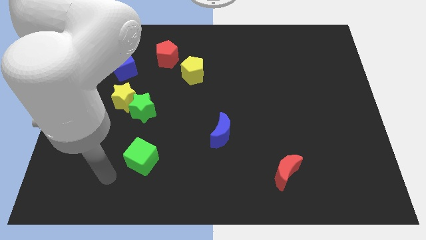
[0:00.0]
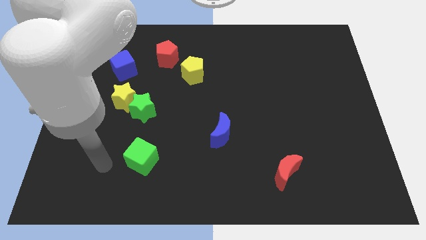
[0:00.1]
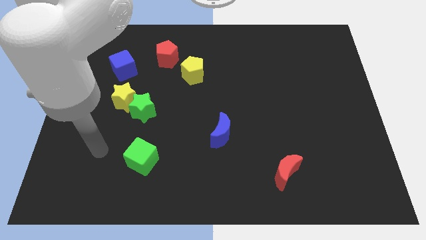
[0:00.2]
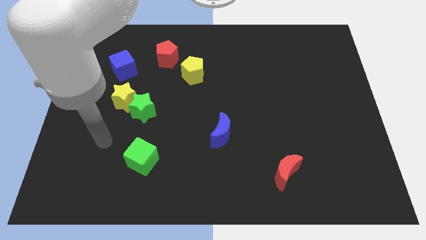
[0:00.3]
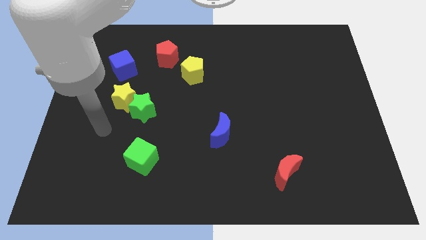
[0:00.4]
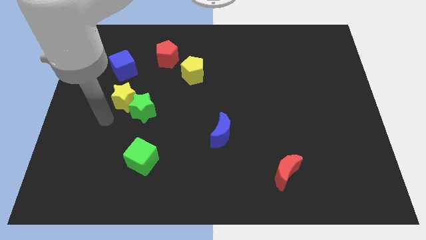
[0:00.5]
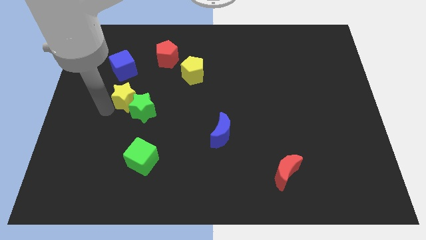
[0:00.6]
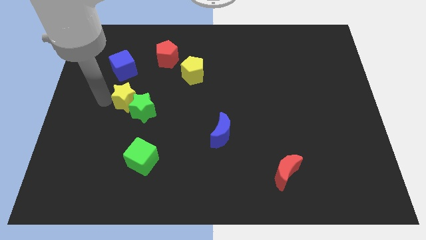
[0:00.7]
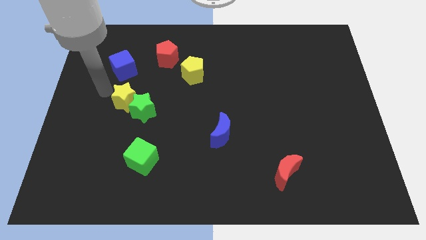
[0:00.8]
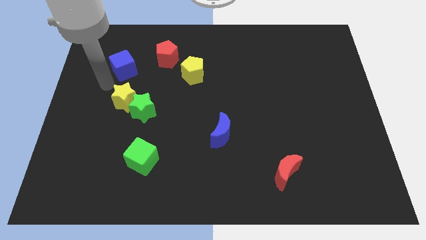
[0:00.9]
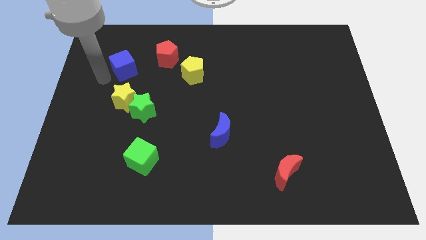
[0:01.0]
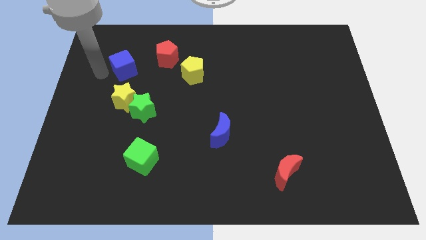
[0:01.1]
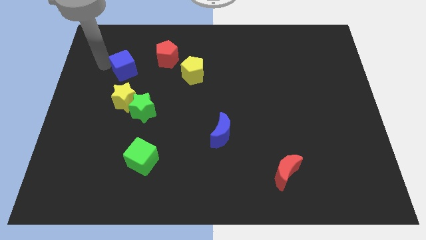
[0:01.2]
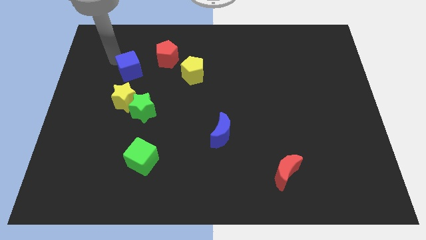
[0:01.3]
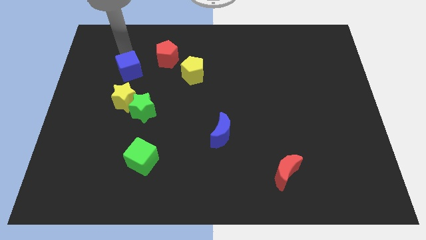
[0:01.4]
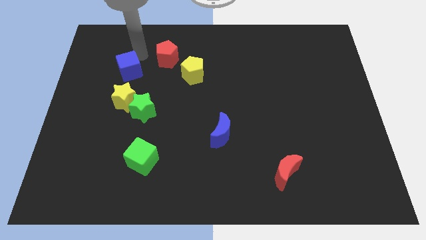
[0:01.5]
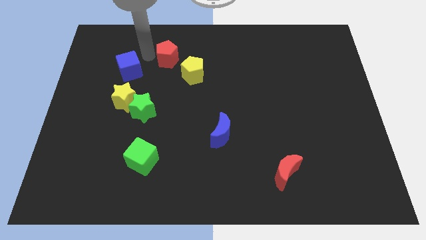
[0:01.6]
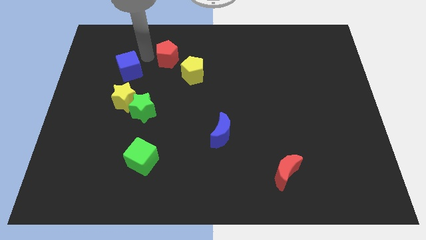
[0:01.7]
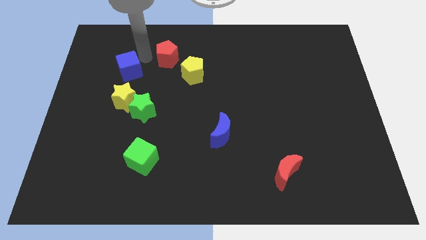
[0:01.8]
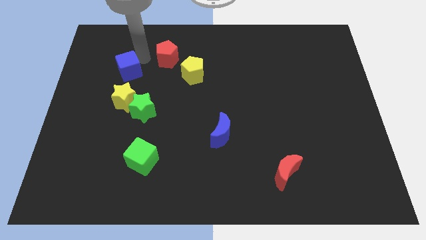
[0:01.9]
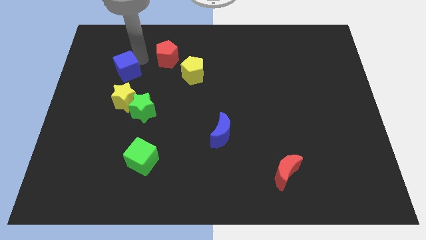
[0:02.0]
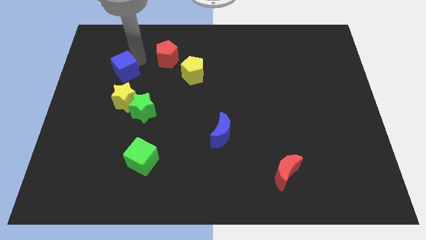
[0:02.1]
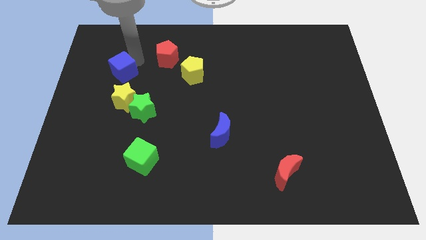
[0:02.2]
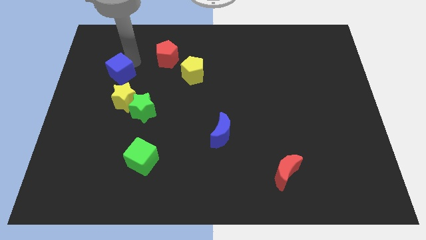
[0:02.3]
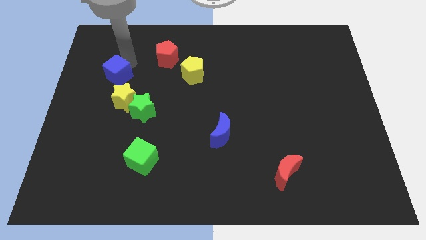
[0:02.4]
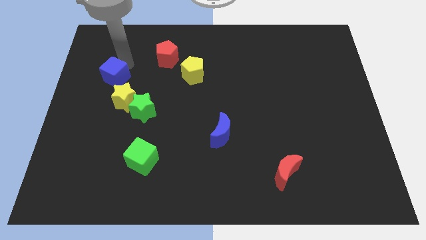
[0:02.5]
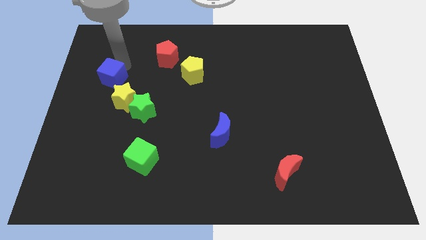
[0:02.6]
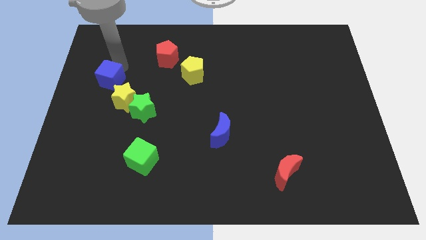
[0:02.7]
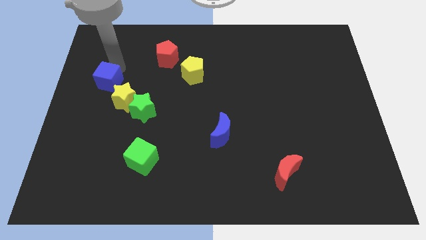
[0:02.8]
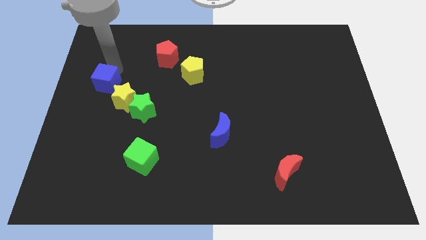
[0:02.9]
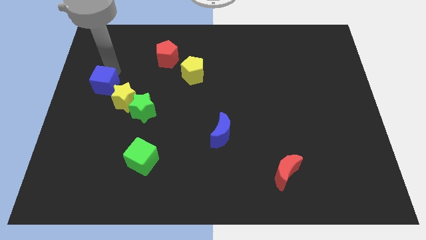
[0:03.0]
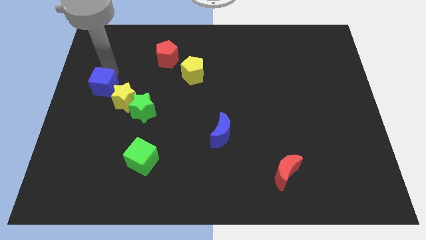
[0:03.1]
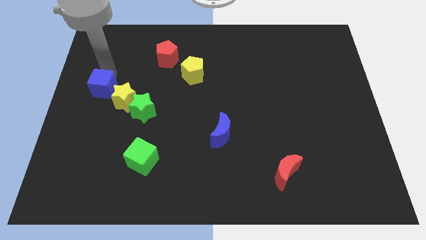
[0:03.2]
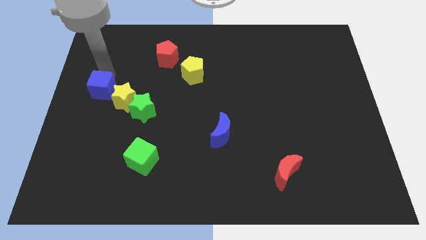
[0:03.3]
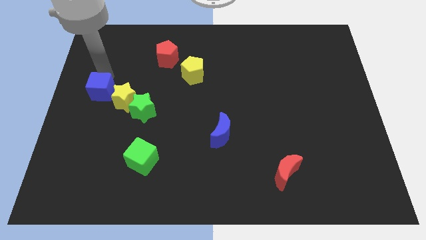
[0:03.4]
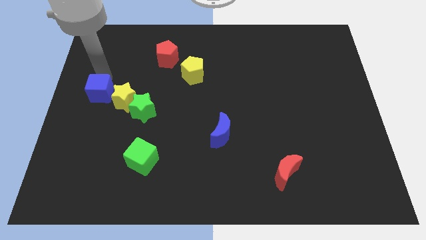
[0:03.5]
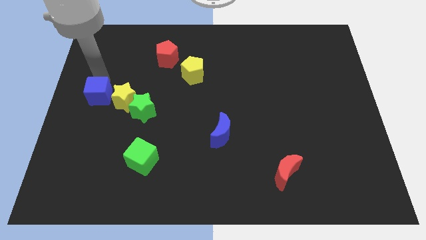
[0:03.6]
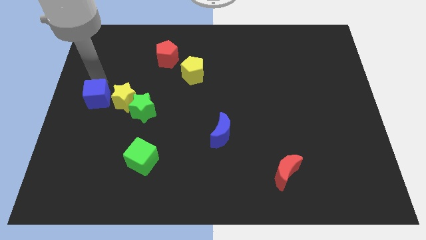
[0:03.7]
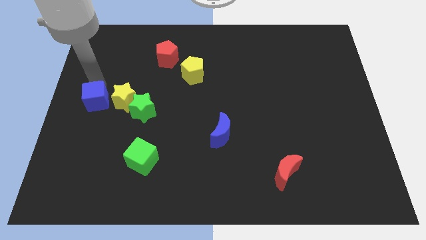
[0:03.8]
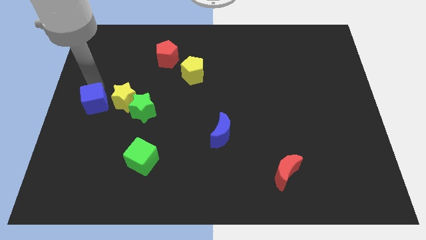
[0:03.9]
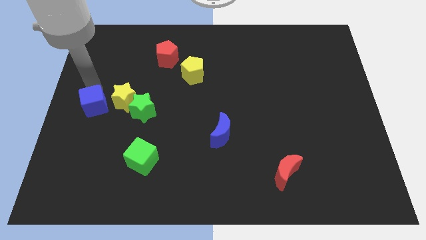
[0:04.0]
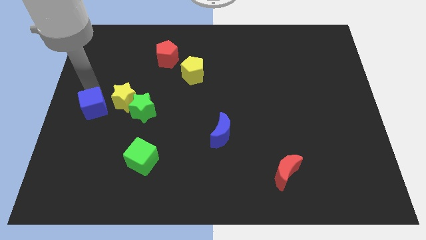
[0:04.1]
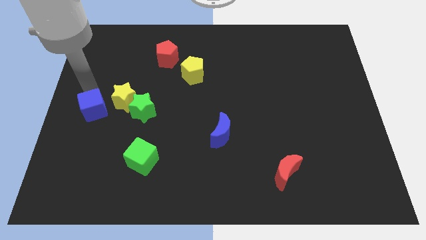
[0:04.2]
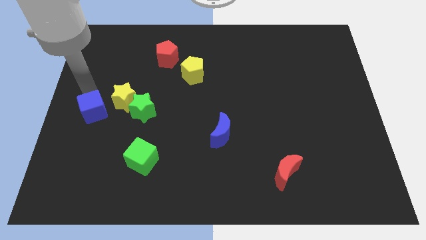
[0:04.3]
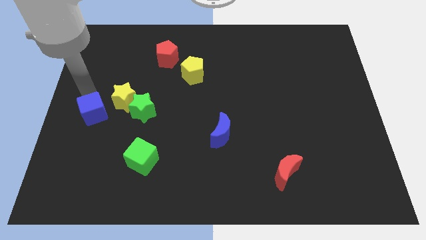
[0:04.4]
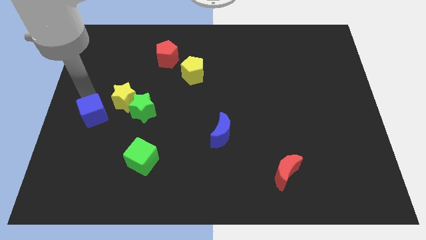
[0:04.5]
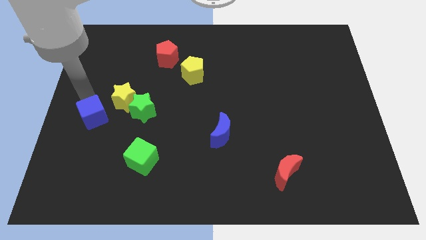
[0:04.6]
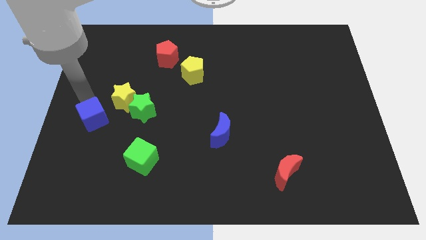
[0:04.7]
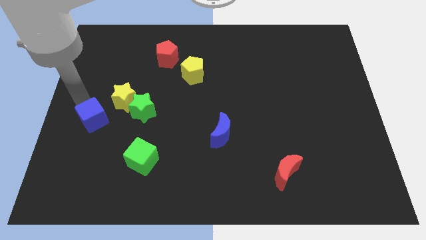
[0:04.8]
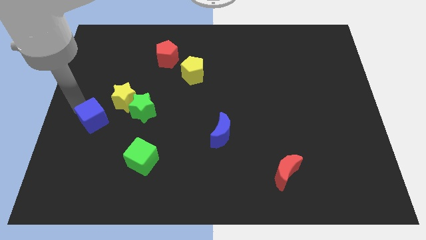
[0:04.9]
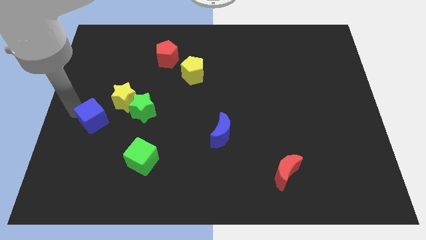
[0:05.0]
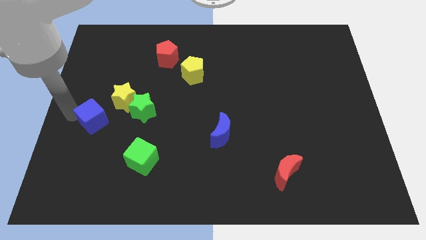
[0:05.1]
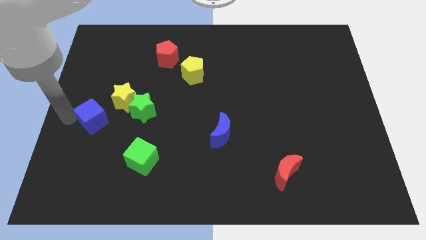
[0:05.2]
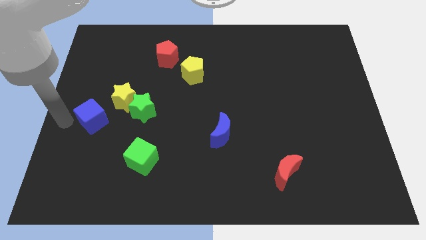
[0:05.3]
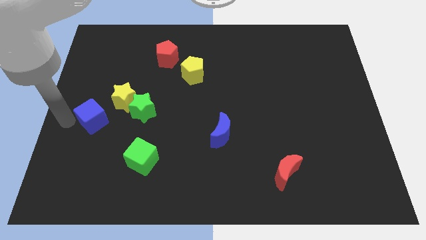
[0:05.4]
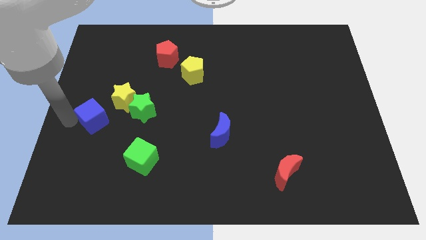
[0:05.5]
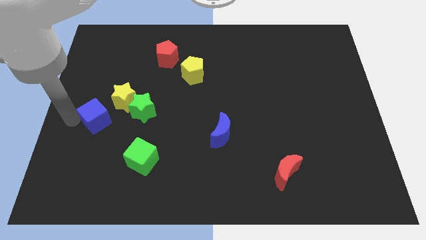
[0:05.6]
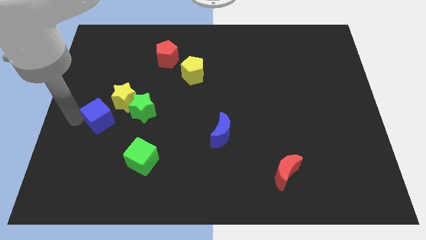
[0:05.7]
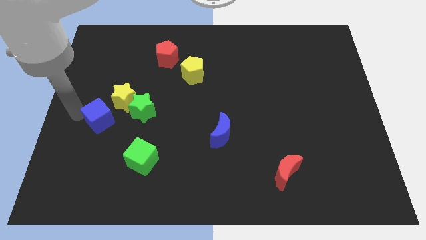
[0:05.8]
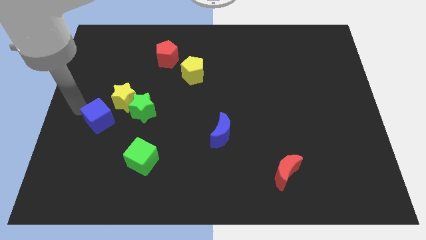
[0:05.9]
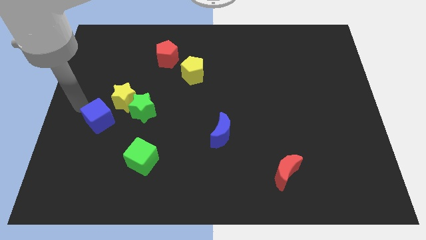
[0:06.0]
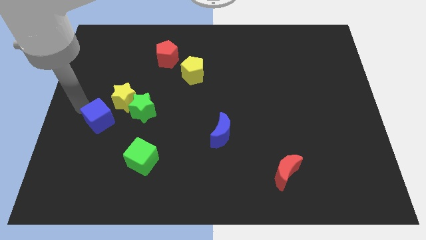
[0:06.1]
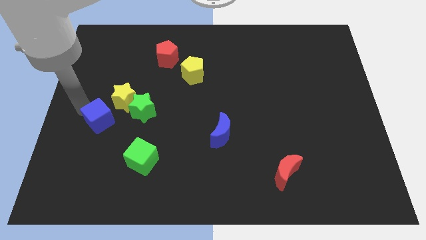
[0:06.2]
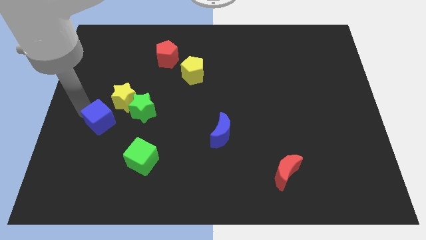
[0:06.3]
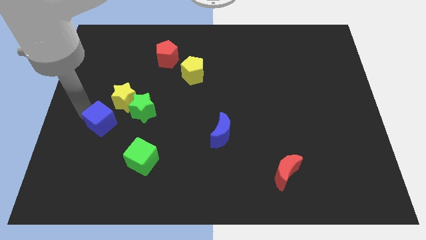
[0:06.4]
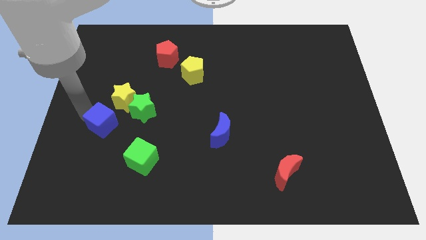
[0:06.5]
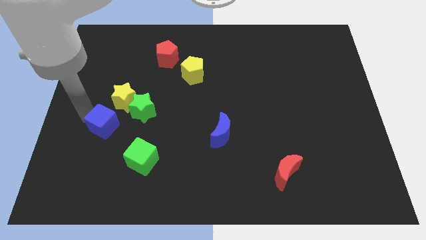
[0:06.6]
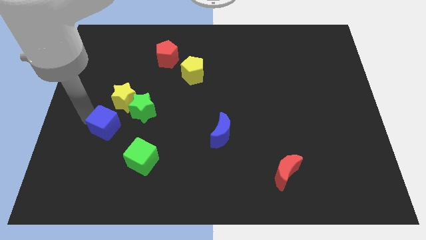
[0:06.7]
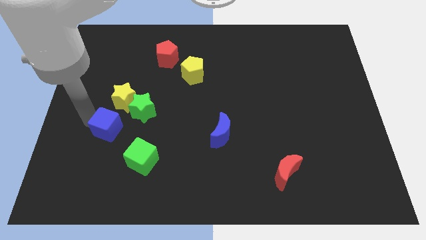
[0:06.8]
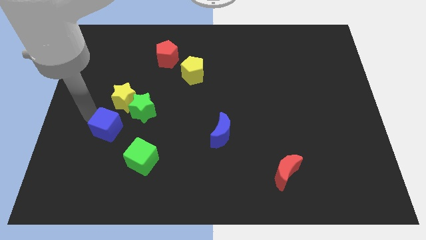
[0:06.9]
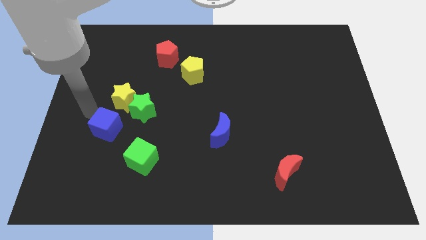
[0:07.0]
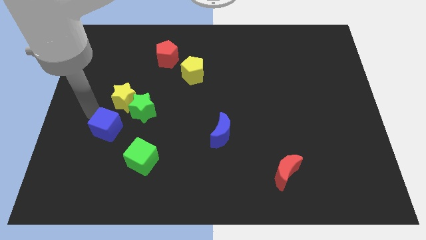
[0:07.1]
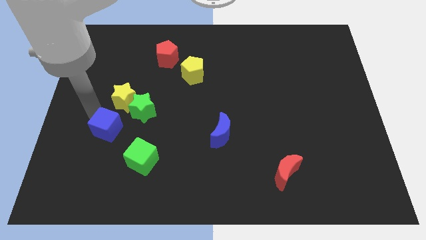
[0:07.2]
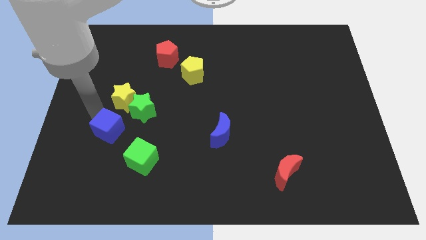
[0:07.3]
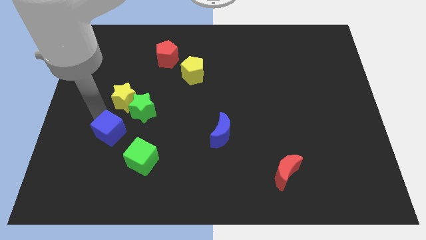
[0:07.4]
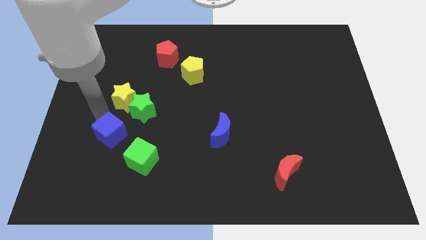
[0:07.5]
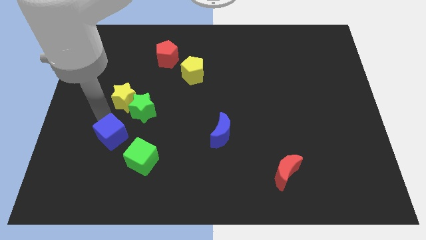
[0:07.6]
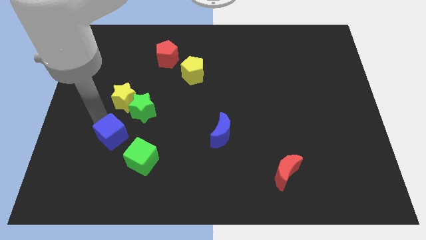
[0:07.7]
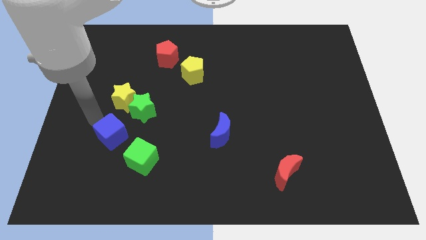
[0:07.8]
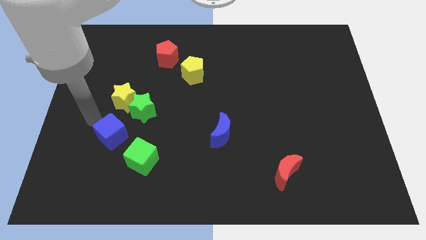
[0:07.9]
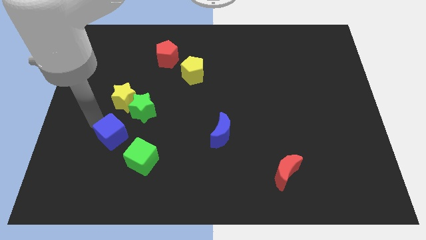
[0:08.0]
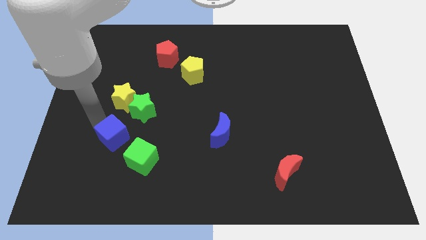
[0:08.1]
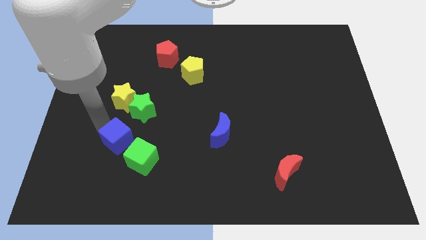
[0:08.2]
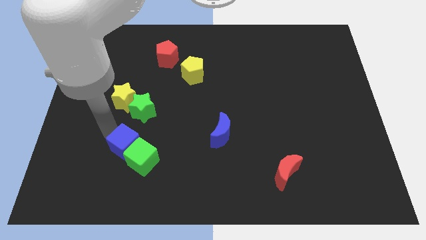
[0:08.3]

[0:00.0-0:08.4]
move the blue cube close to the green cube

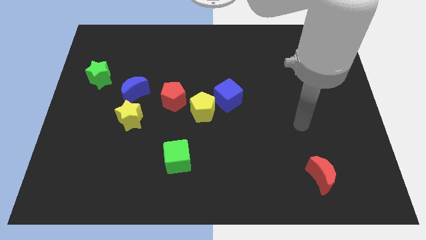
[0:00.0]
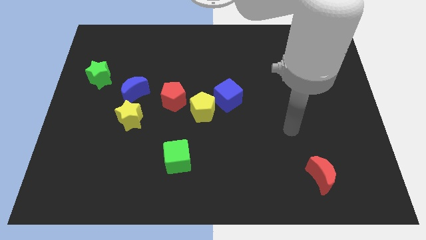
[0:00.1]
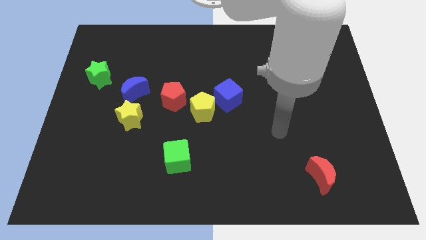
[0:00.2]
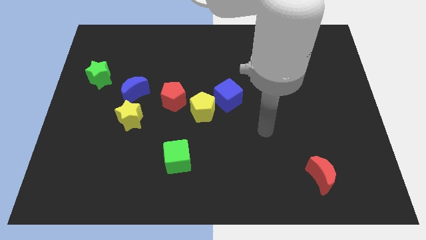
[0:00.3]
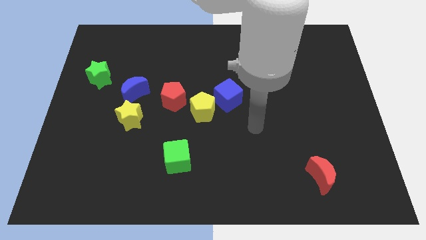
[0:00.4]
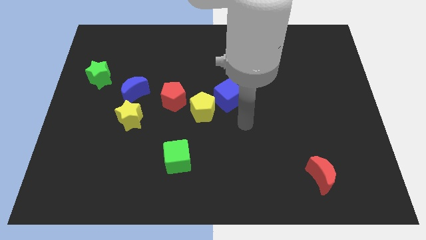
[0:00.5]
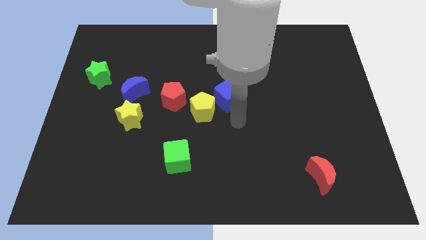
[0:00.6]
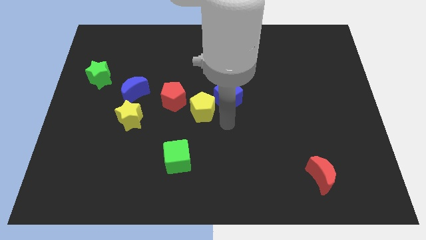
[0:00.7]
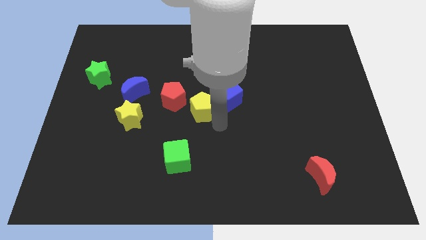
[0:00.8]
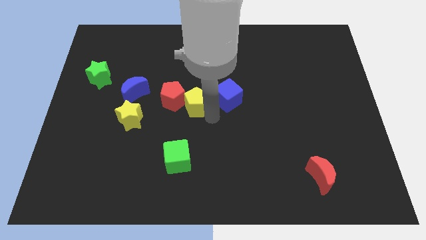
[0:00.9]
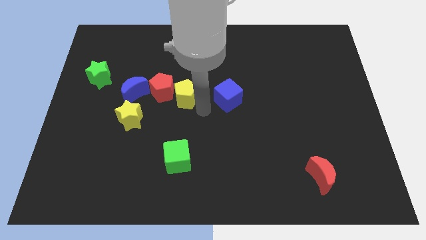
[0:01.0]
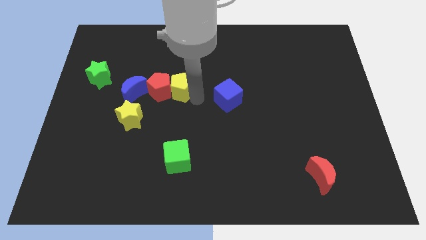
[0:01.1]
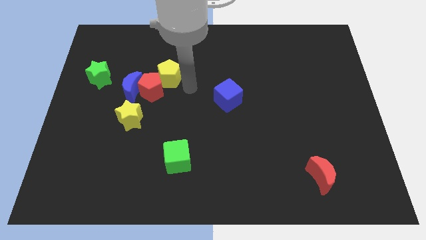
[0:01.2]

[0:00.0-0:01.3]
put the red pentagon close to the blue moon
